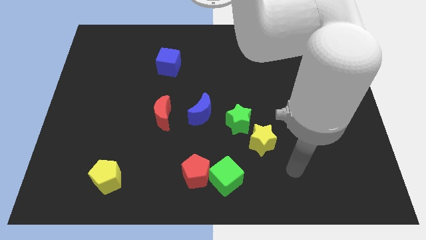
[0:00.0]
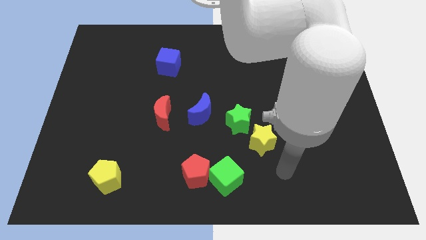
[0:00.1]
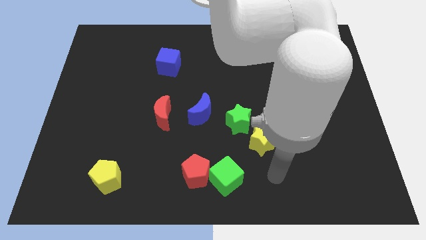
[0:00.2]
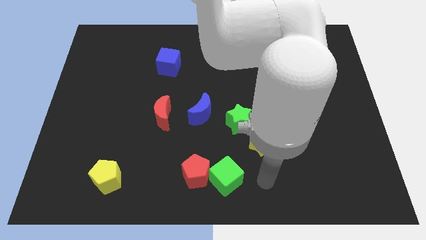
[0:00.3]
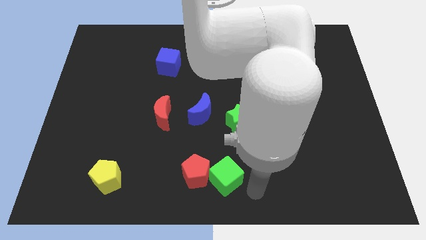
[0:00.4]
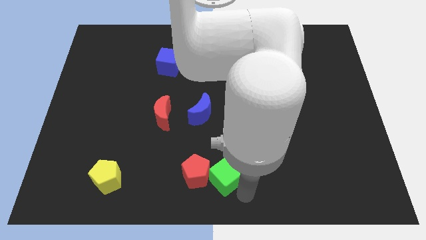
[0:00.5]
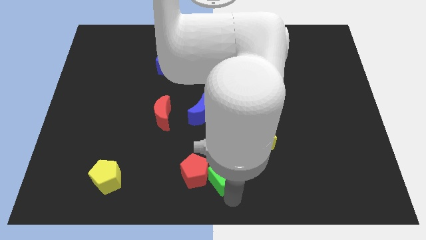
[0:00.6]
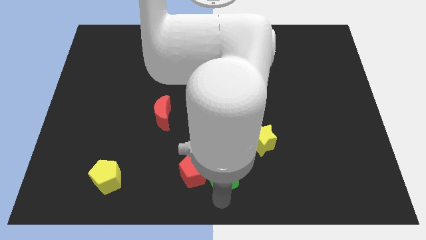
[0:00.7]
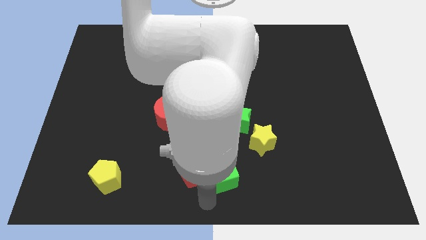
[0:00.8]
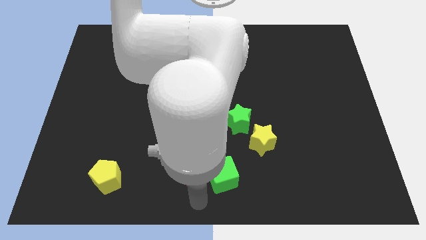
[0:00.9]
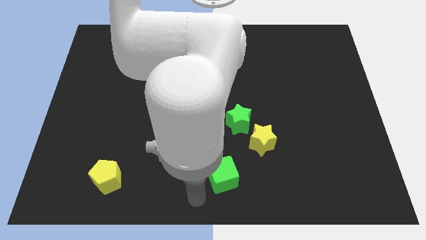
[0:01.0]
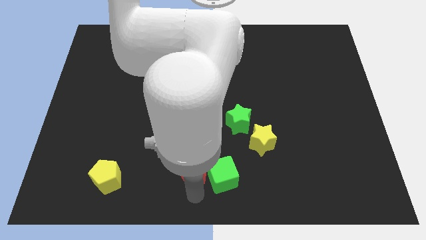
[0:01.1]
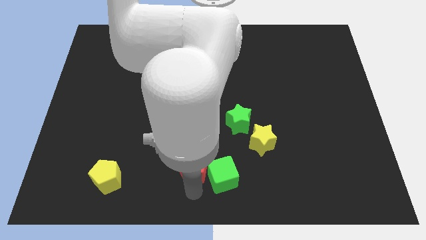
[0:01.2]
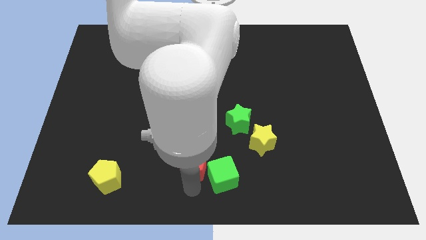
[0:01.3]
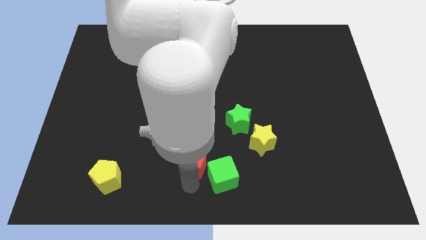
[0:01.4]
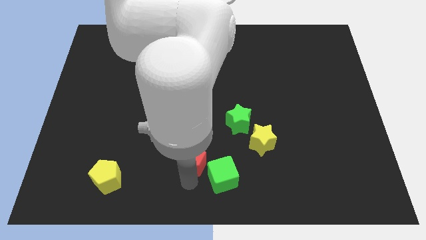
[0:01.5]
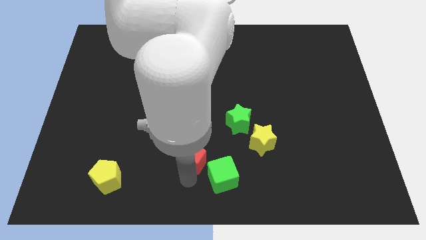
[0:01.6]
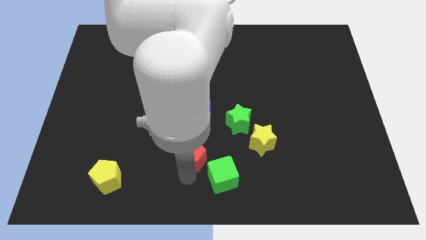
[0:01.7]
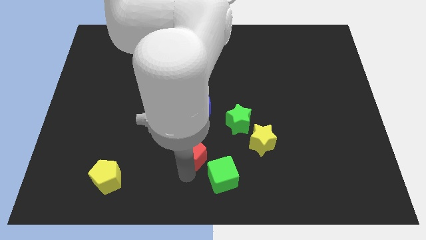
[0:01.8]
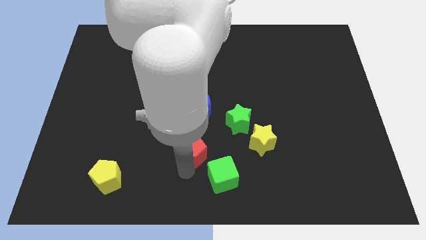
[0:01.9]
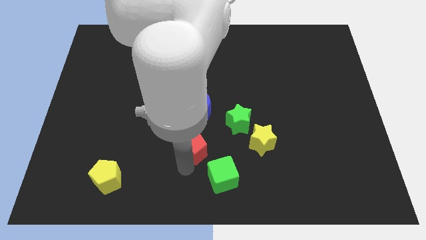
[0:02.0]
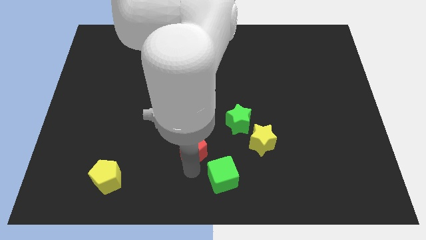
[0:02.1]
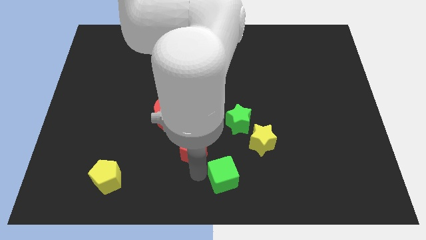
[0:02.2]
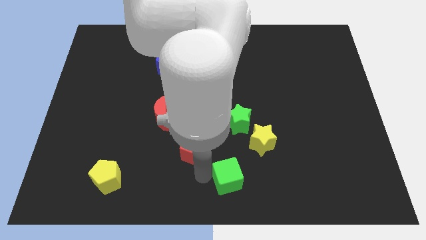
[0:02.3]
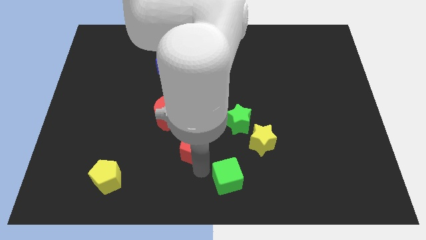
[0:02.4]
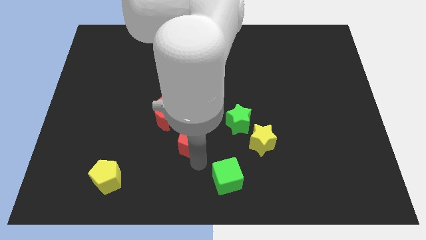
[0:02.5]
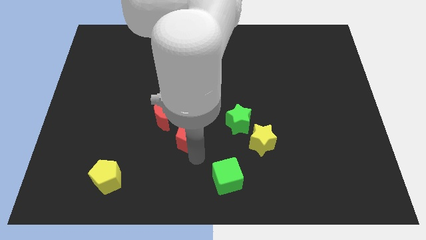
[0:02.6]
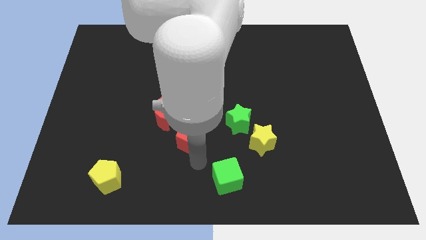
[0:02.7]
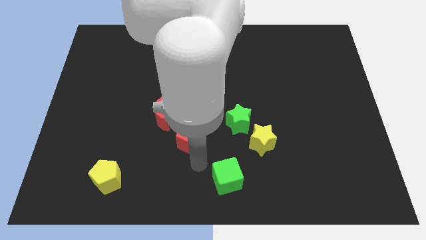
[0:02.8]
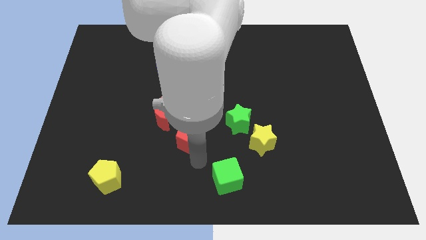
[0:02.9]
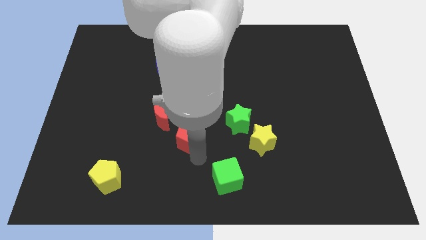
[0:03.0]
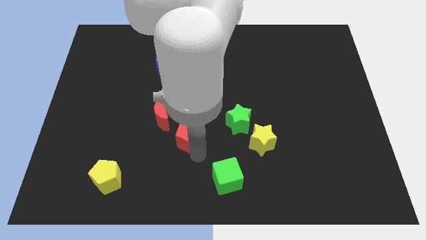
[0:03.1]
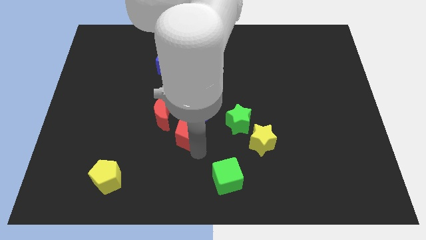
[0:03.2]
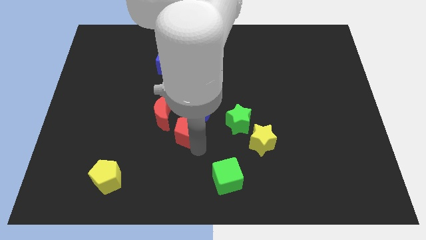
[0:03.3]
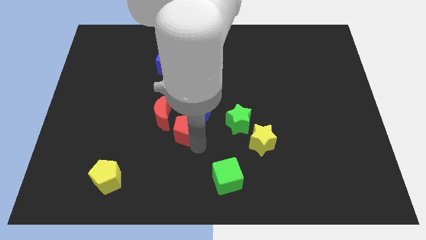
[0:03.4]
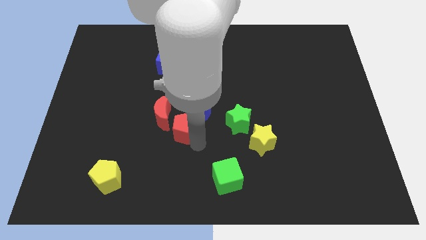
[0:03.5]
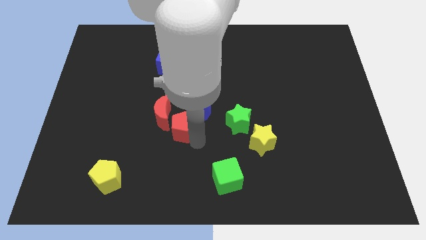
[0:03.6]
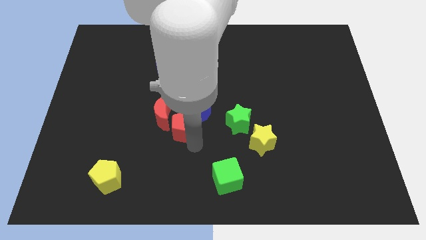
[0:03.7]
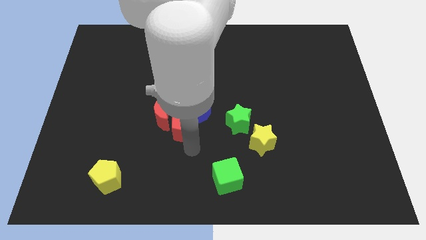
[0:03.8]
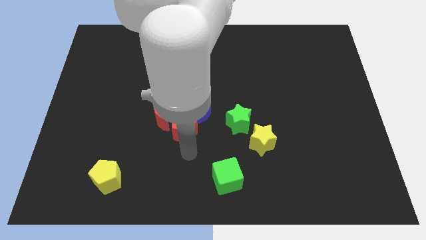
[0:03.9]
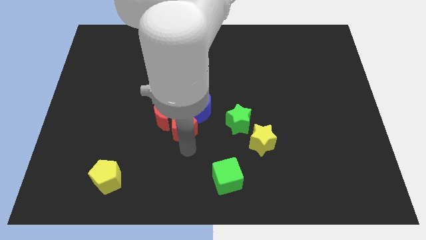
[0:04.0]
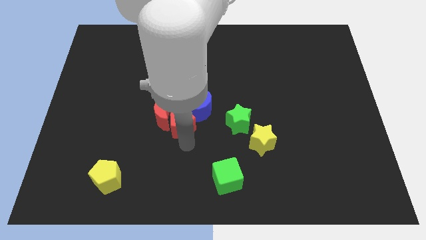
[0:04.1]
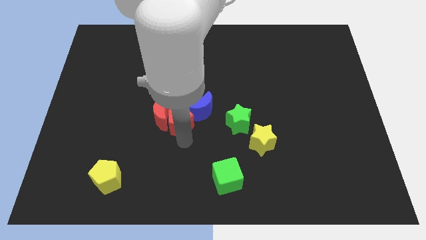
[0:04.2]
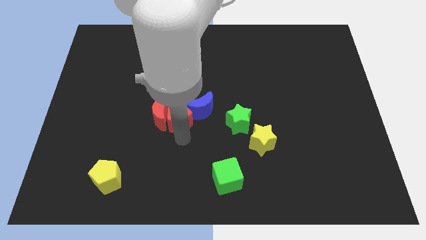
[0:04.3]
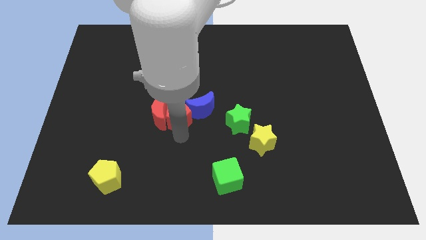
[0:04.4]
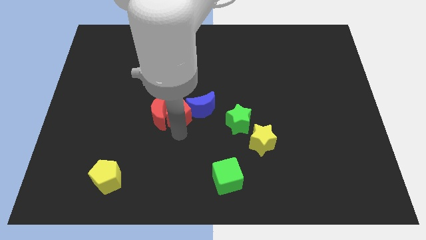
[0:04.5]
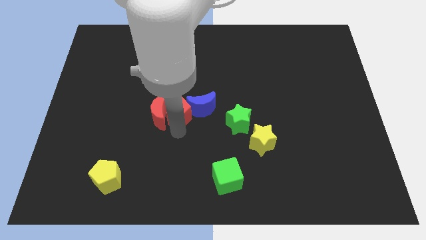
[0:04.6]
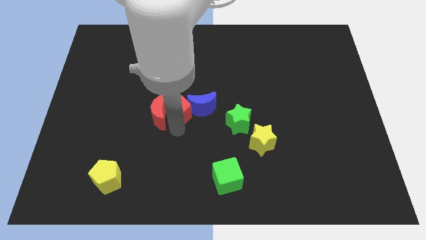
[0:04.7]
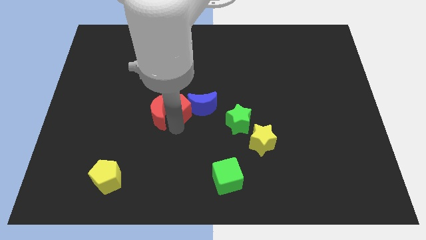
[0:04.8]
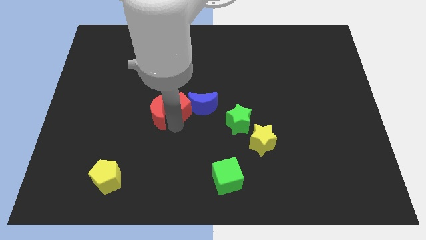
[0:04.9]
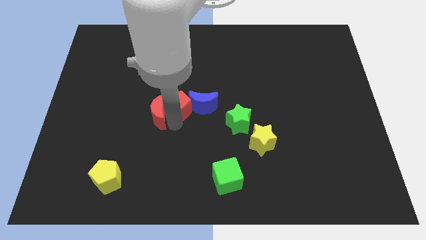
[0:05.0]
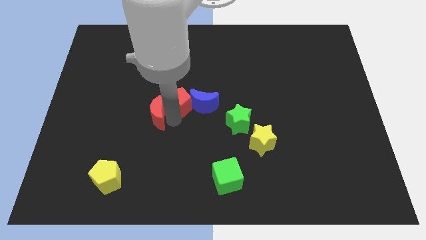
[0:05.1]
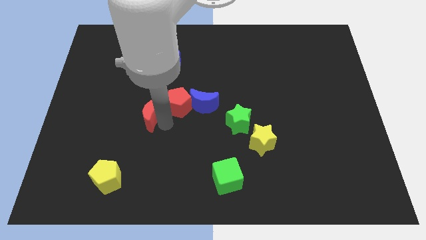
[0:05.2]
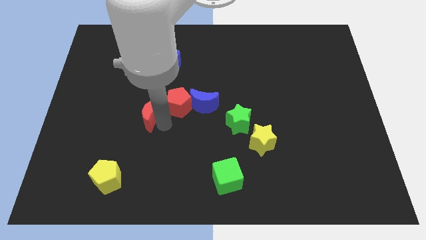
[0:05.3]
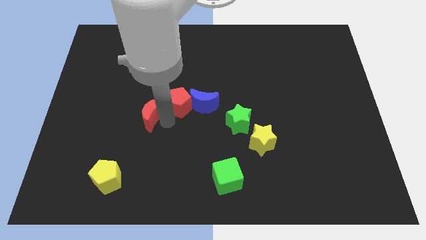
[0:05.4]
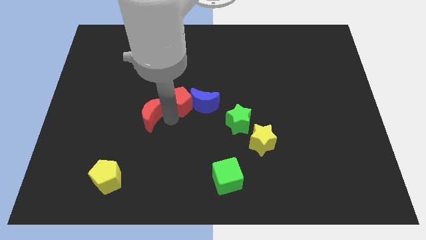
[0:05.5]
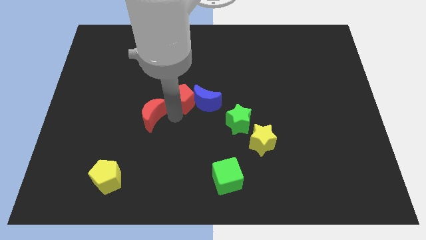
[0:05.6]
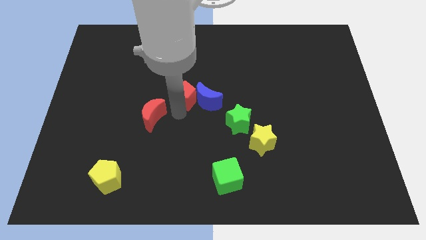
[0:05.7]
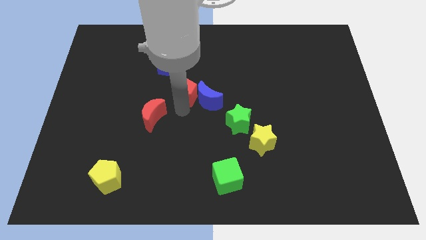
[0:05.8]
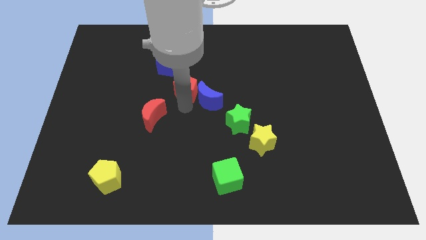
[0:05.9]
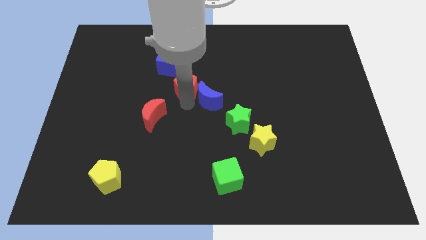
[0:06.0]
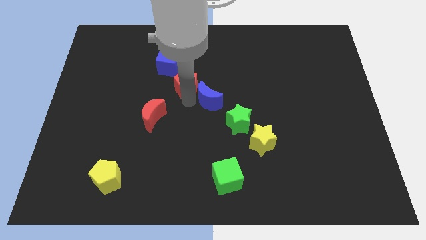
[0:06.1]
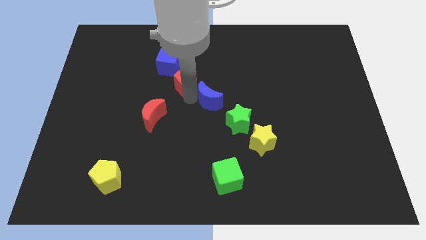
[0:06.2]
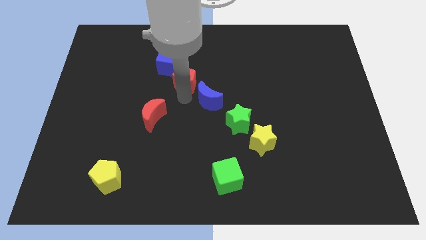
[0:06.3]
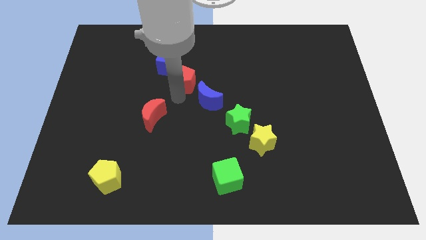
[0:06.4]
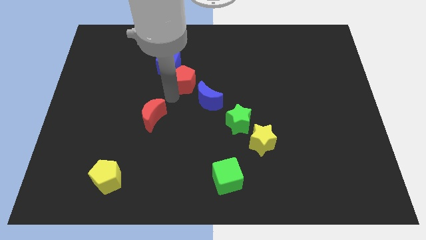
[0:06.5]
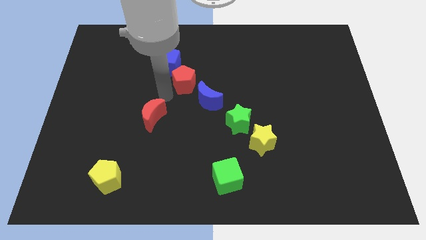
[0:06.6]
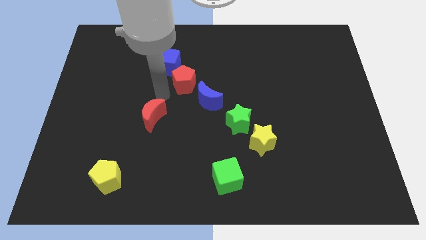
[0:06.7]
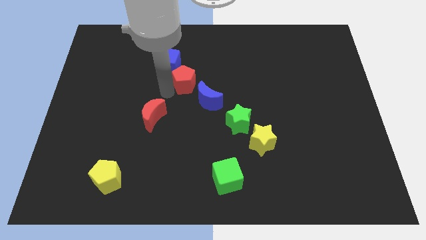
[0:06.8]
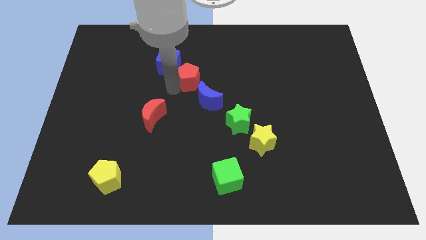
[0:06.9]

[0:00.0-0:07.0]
push the red pentagon to the top side of the blue moon

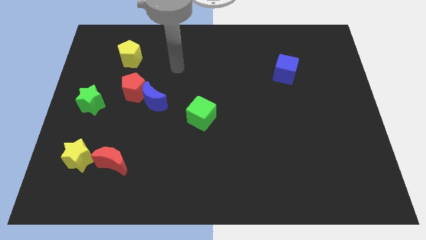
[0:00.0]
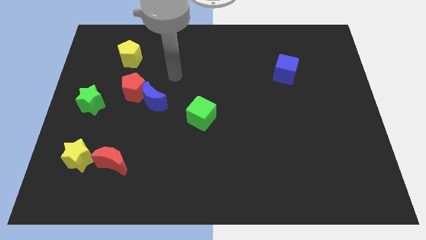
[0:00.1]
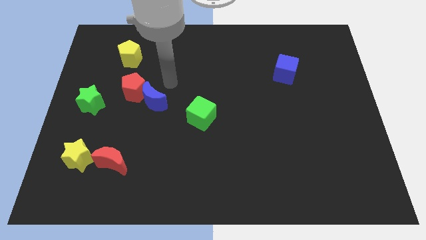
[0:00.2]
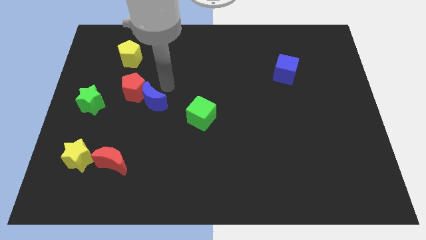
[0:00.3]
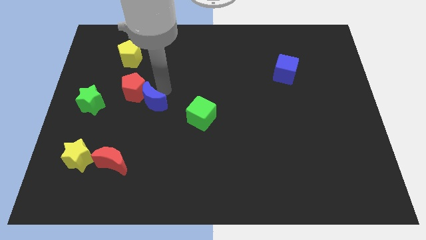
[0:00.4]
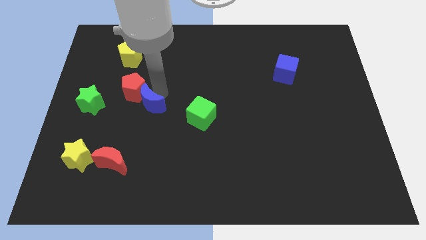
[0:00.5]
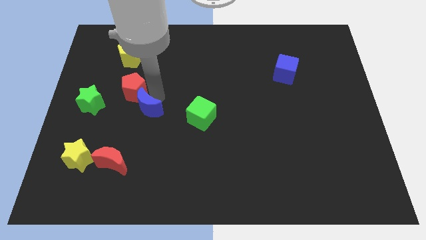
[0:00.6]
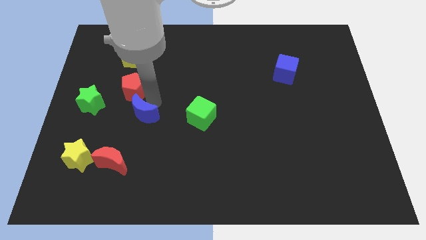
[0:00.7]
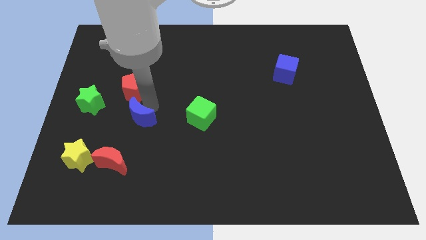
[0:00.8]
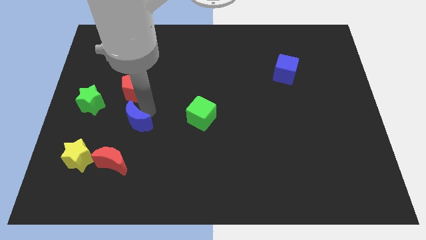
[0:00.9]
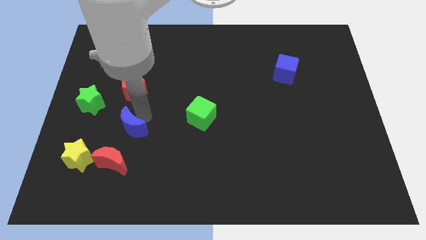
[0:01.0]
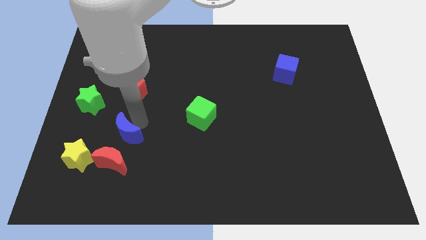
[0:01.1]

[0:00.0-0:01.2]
push the blue moon to the top right of the yellow star

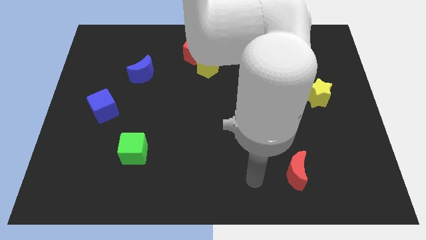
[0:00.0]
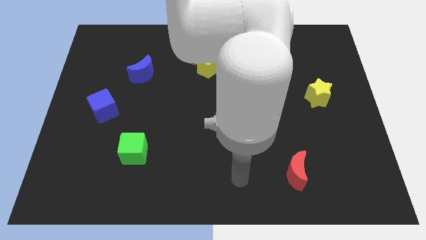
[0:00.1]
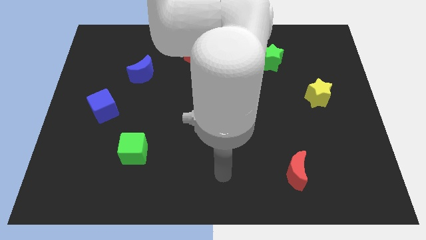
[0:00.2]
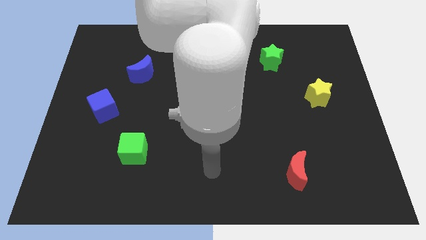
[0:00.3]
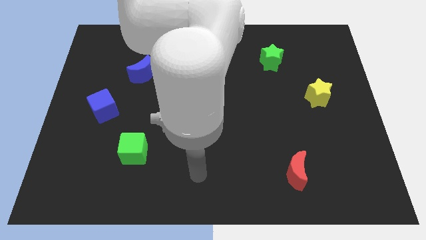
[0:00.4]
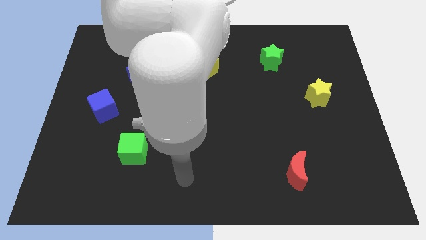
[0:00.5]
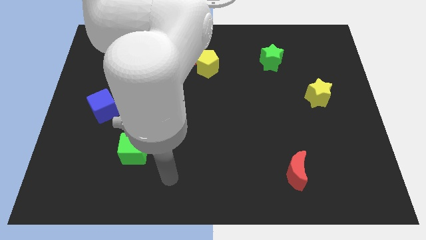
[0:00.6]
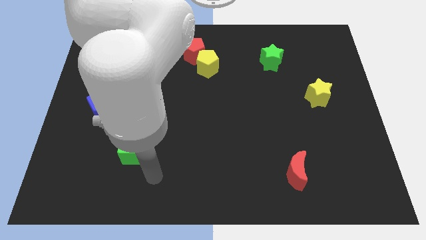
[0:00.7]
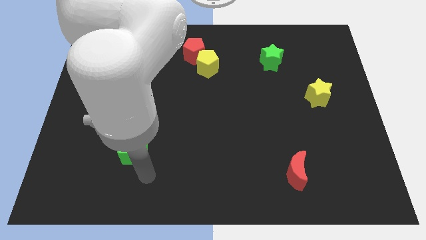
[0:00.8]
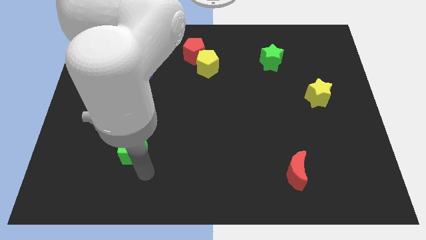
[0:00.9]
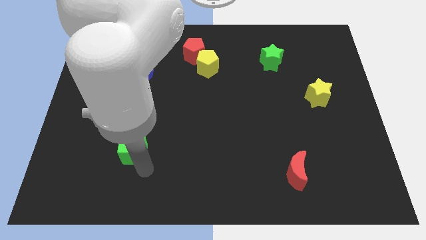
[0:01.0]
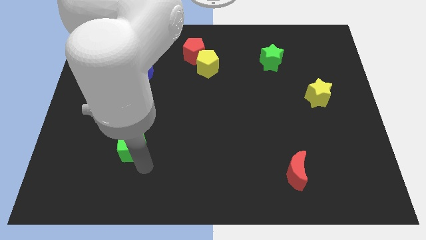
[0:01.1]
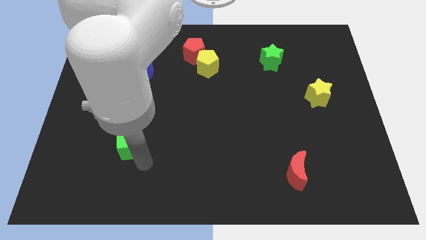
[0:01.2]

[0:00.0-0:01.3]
push the green cube to the bottom right side of the blue cube
